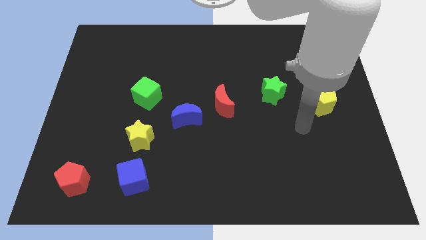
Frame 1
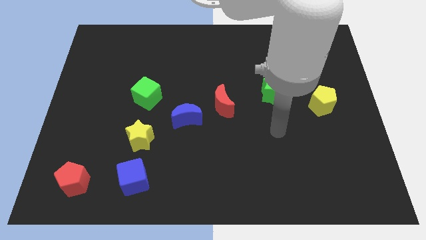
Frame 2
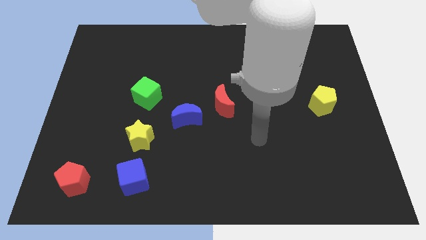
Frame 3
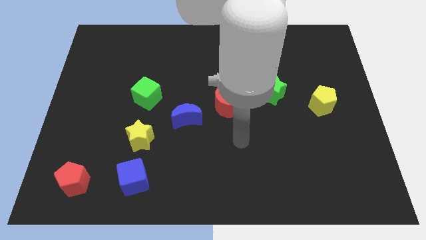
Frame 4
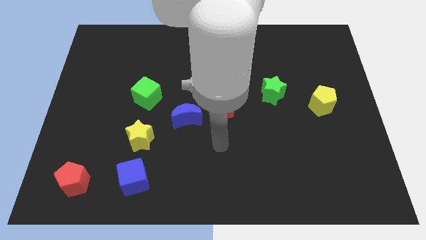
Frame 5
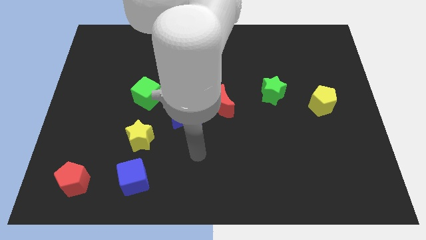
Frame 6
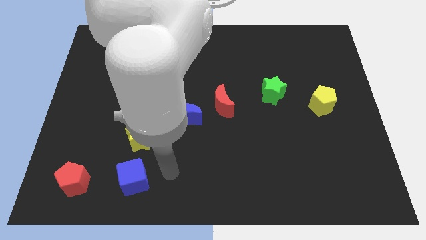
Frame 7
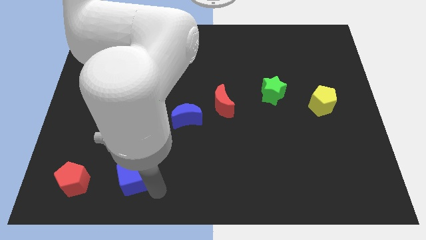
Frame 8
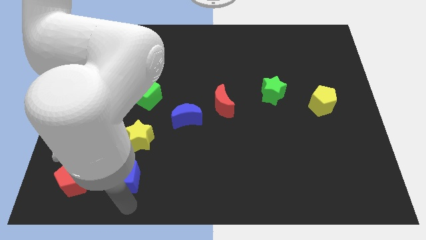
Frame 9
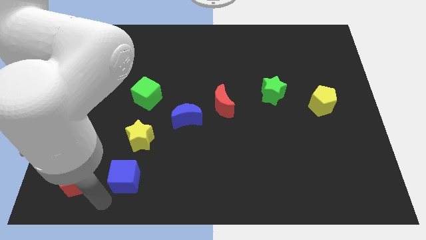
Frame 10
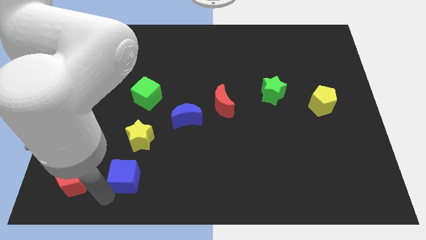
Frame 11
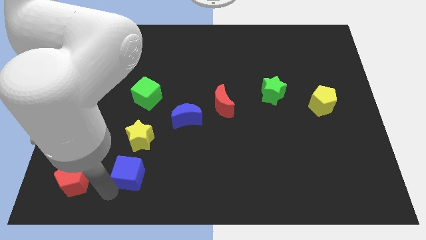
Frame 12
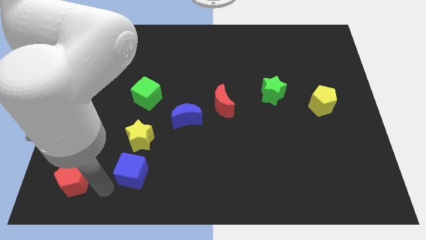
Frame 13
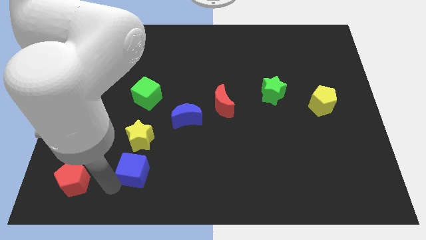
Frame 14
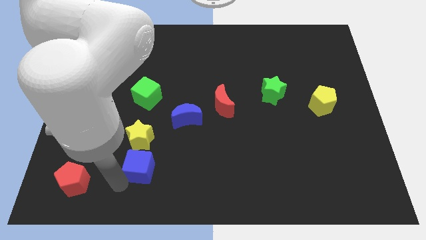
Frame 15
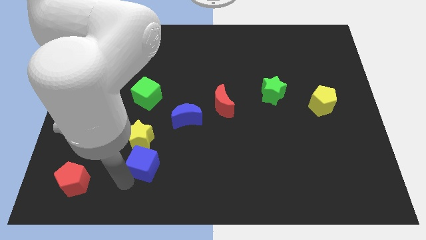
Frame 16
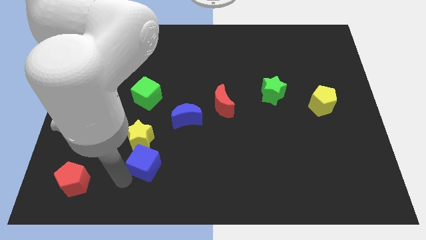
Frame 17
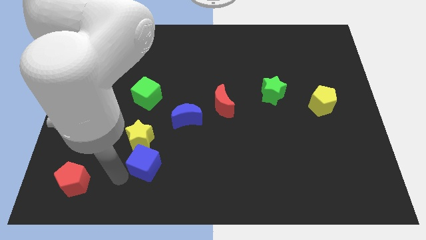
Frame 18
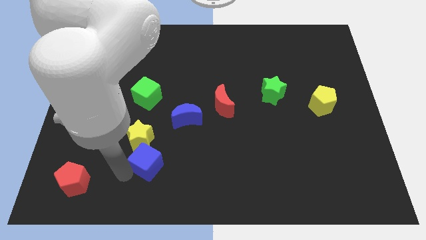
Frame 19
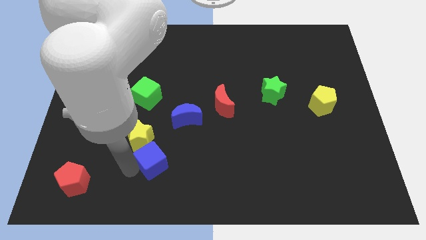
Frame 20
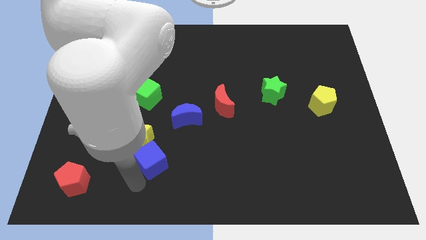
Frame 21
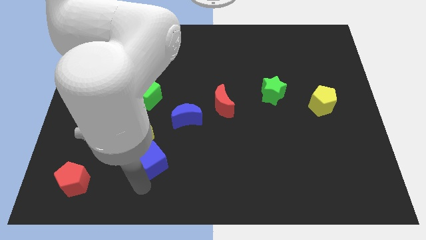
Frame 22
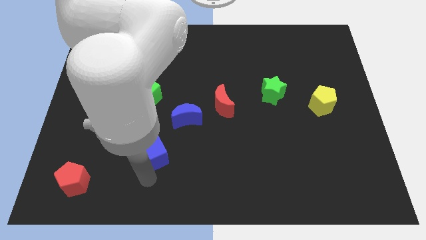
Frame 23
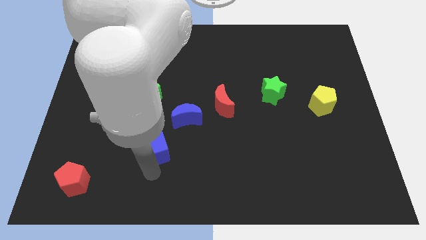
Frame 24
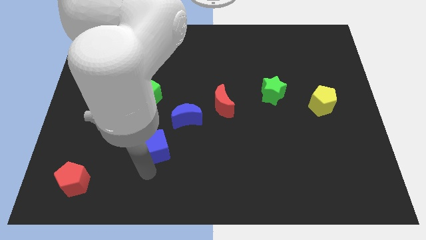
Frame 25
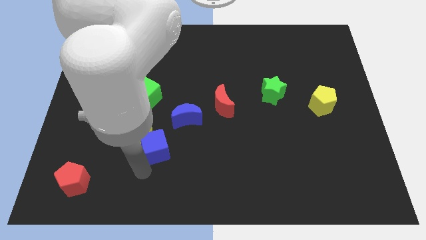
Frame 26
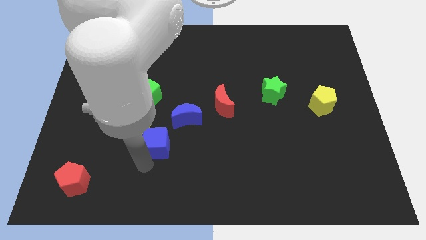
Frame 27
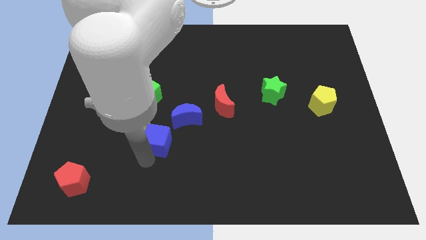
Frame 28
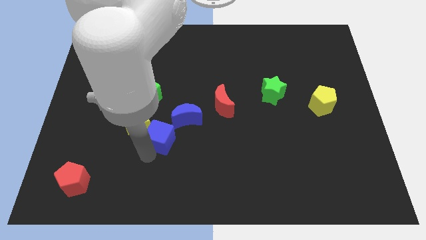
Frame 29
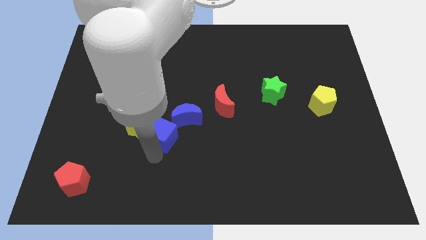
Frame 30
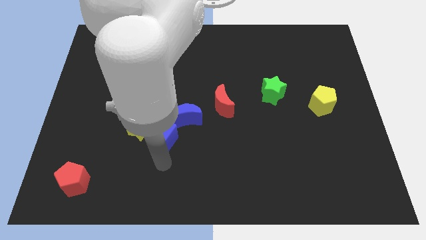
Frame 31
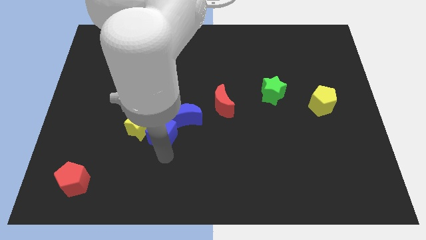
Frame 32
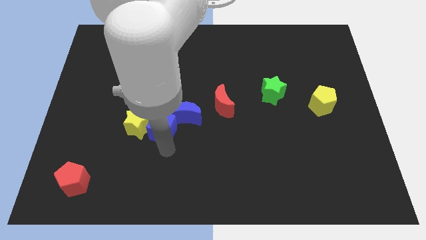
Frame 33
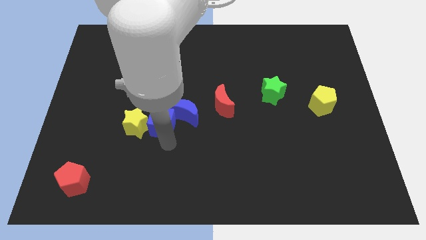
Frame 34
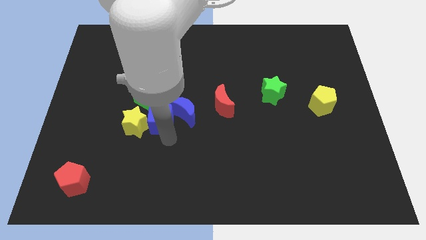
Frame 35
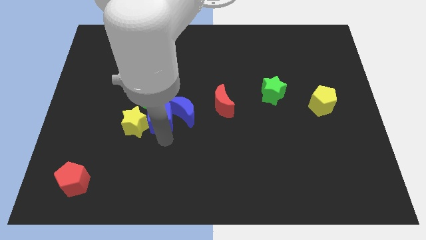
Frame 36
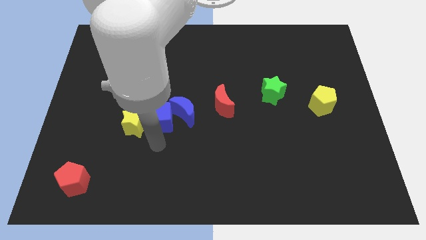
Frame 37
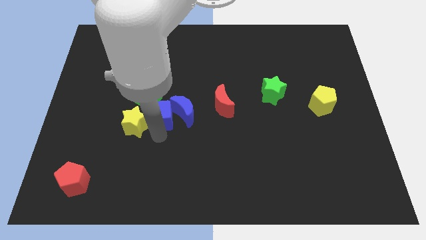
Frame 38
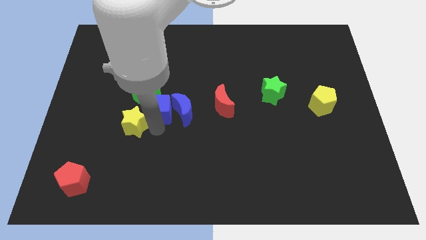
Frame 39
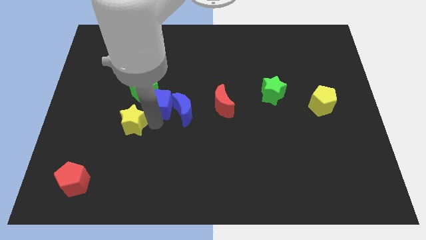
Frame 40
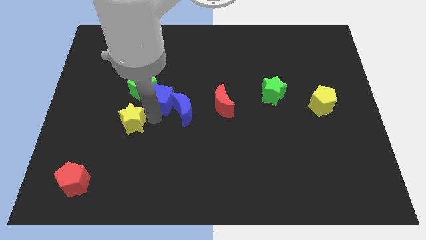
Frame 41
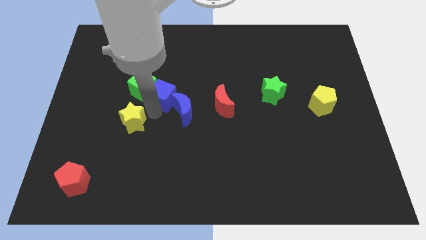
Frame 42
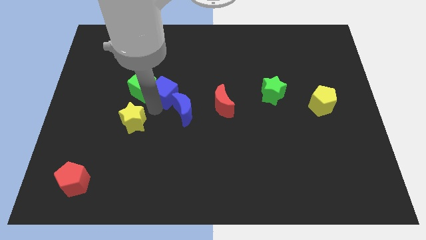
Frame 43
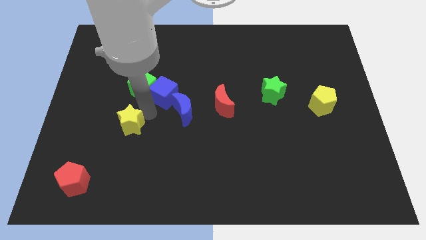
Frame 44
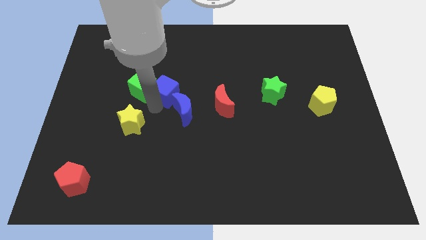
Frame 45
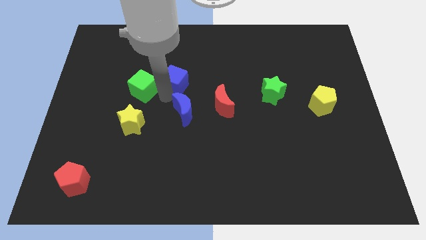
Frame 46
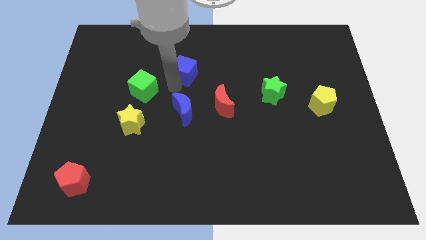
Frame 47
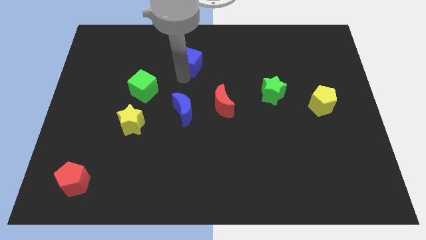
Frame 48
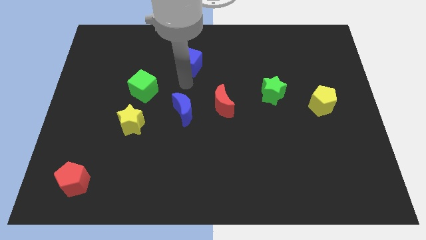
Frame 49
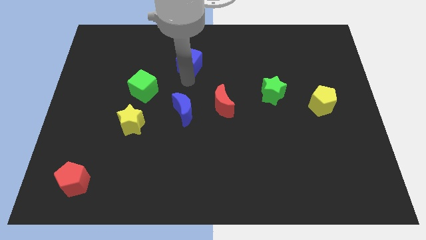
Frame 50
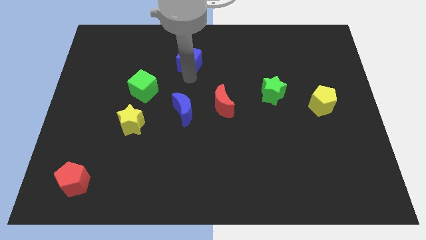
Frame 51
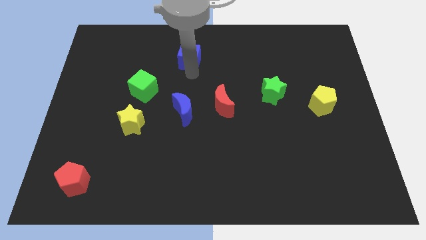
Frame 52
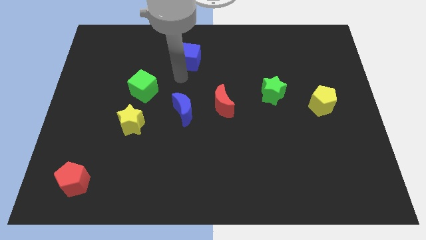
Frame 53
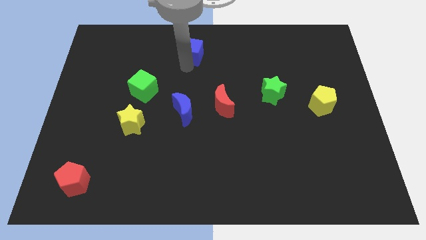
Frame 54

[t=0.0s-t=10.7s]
move the blue cube to the towards your base

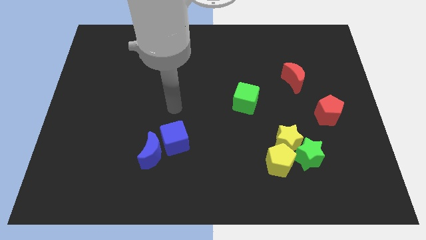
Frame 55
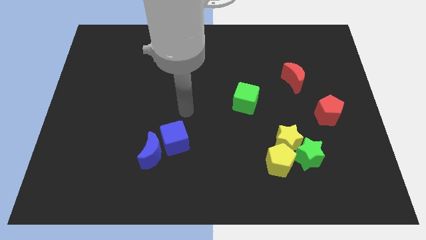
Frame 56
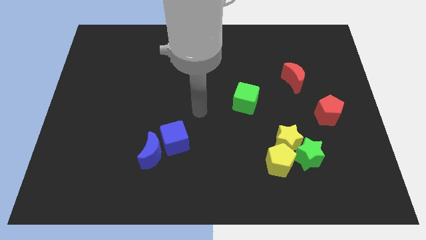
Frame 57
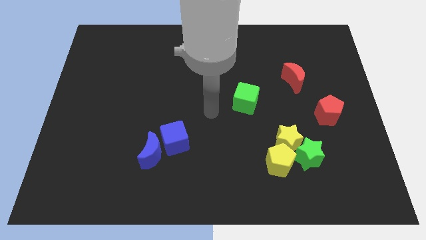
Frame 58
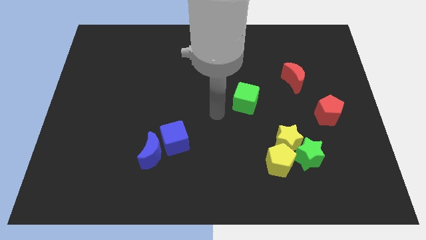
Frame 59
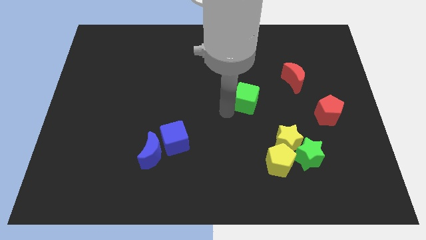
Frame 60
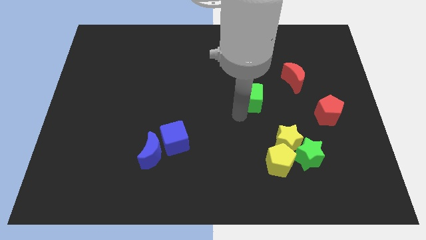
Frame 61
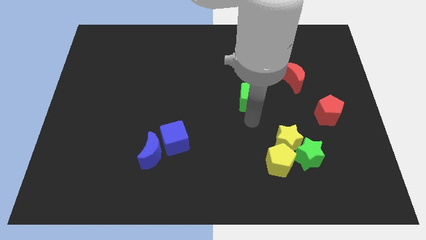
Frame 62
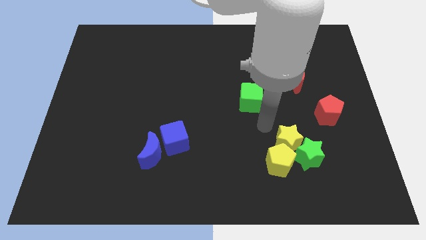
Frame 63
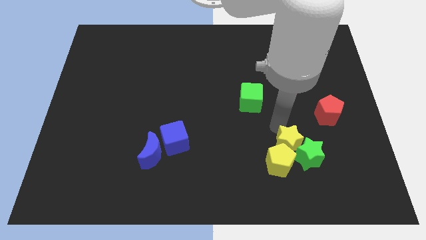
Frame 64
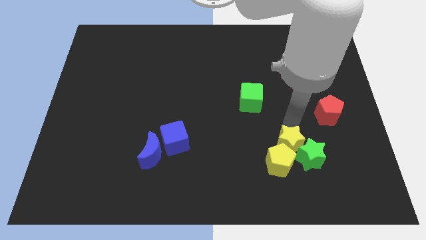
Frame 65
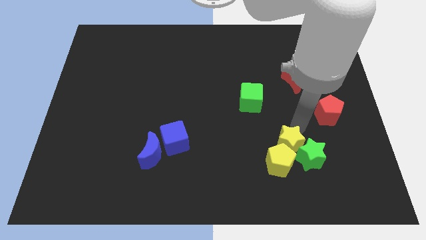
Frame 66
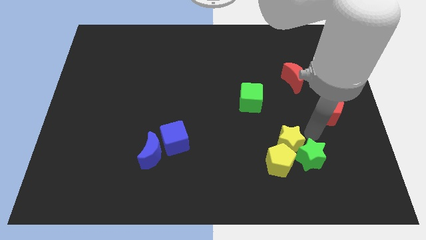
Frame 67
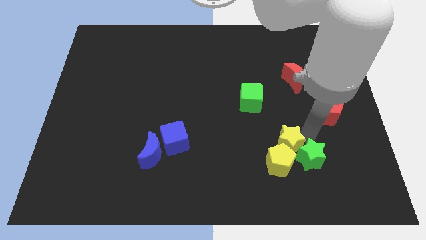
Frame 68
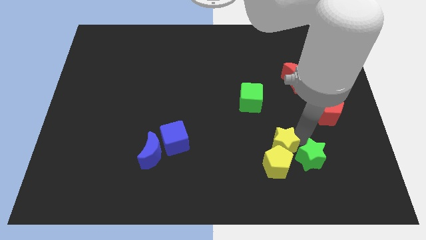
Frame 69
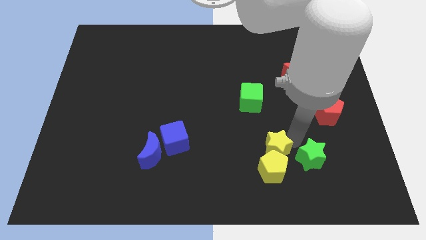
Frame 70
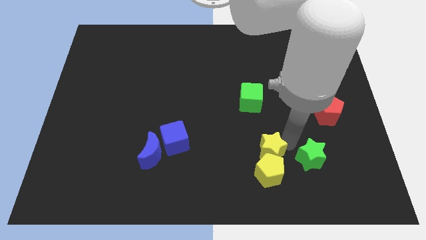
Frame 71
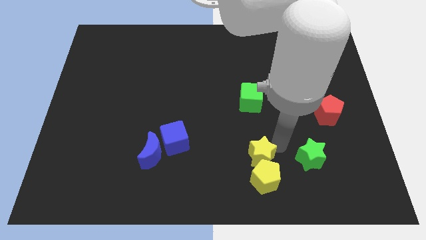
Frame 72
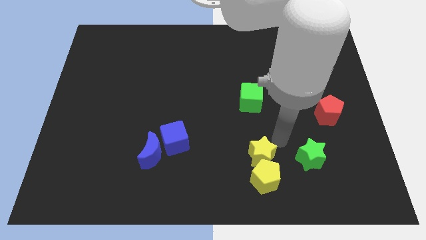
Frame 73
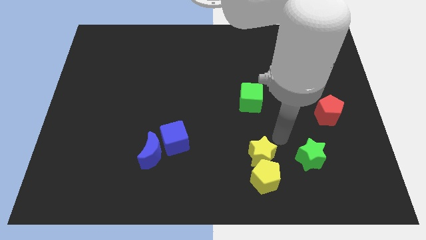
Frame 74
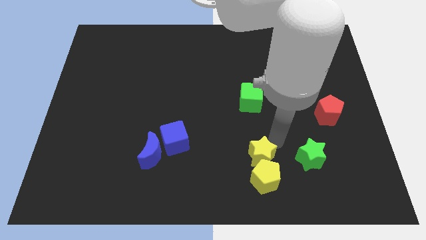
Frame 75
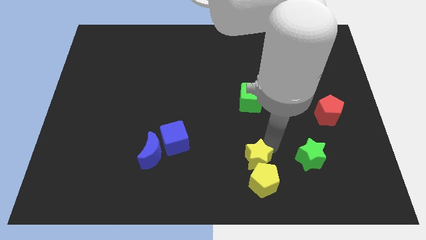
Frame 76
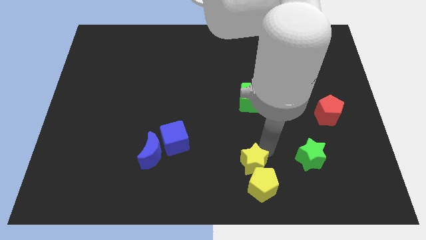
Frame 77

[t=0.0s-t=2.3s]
slide the yellow star to the bottom side
